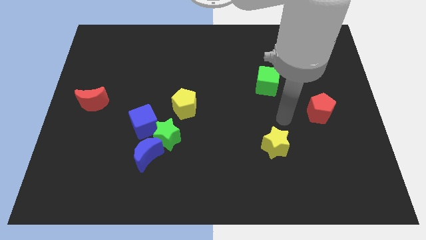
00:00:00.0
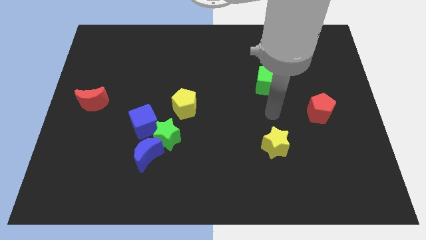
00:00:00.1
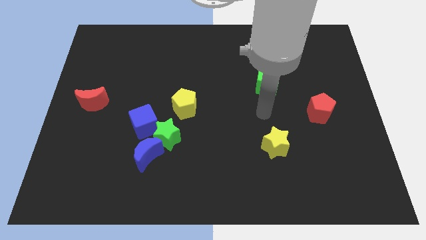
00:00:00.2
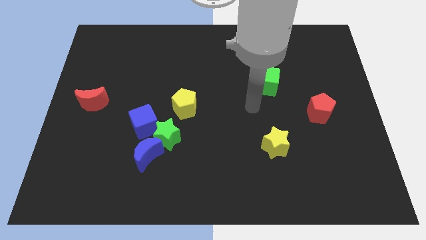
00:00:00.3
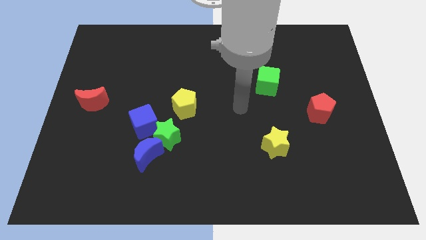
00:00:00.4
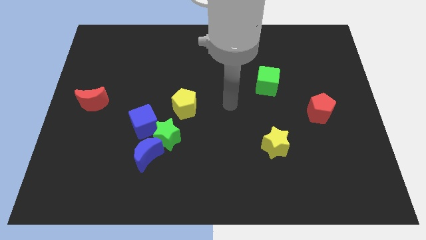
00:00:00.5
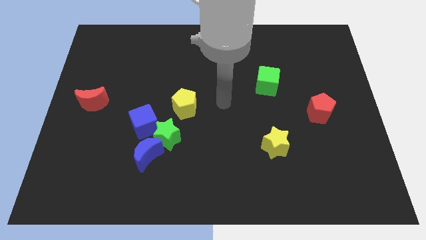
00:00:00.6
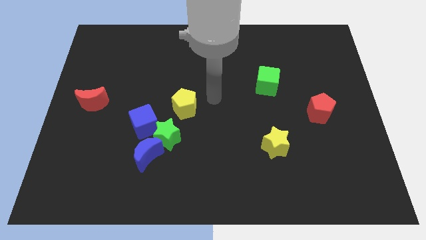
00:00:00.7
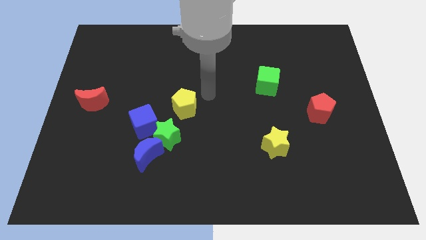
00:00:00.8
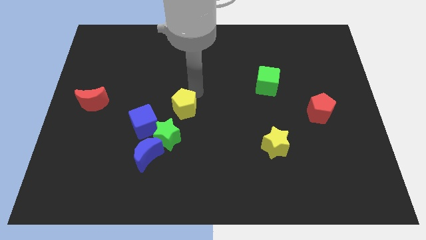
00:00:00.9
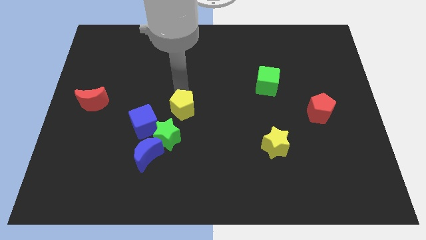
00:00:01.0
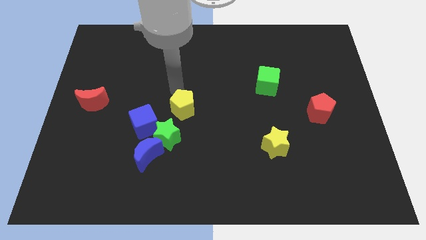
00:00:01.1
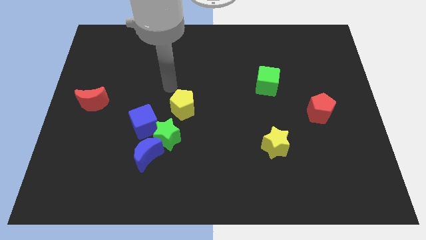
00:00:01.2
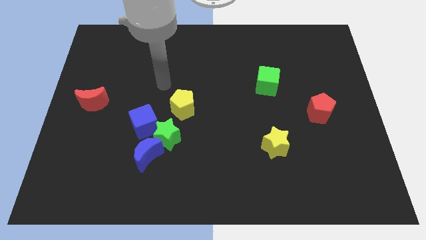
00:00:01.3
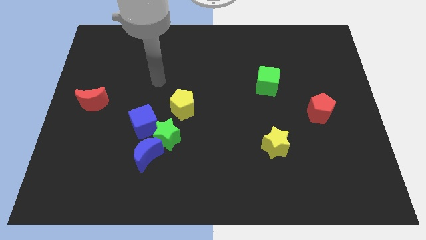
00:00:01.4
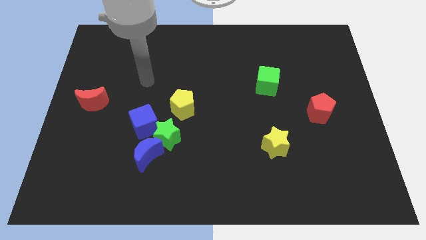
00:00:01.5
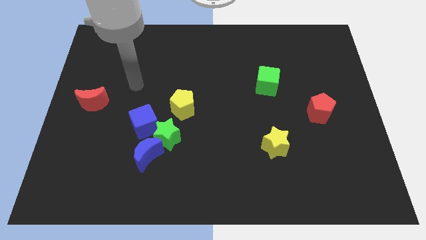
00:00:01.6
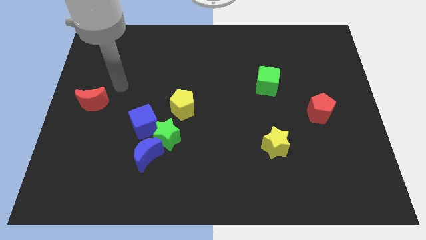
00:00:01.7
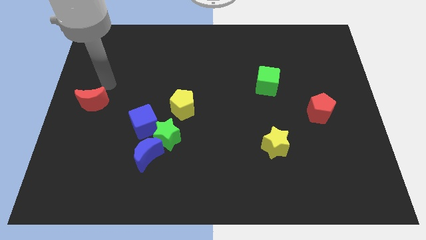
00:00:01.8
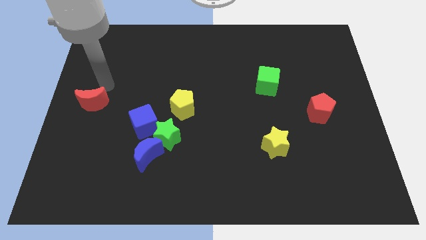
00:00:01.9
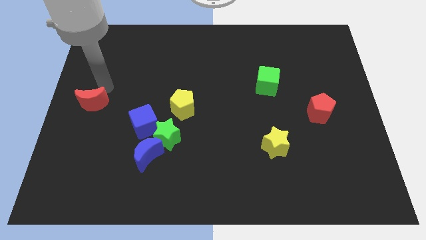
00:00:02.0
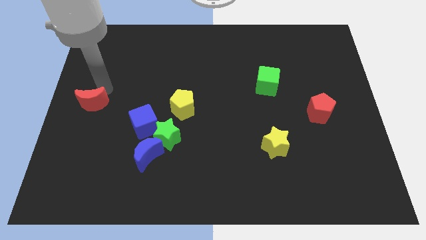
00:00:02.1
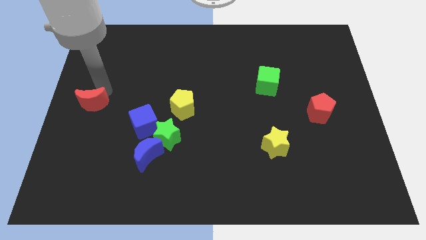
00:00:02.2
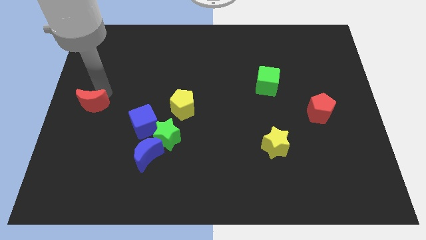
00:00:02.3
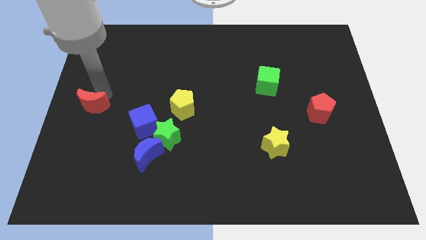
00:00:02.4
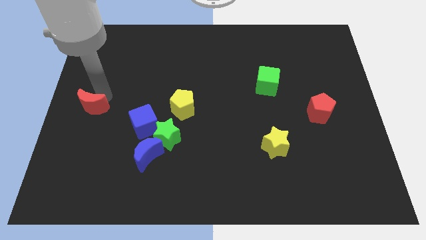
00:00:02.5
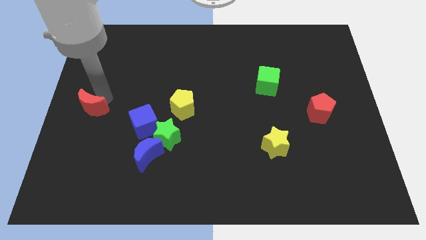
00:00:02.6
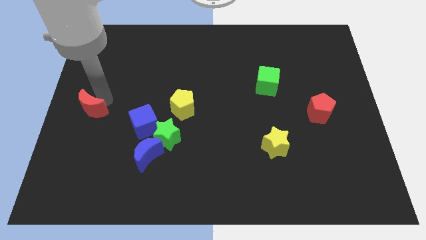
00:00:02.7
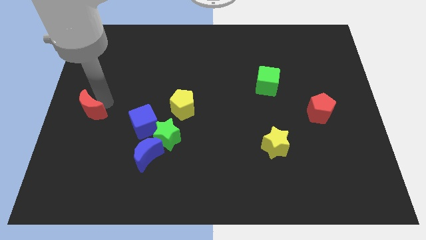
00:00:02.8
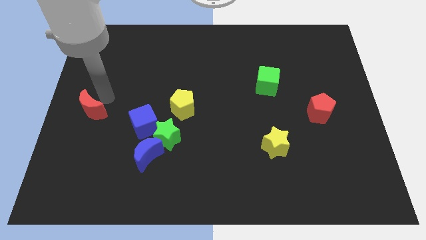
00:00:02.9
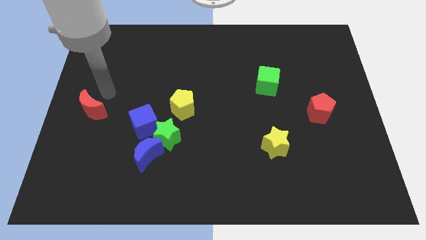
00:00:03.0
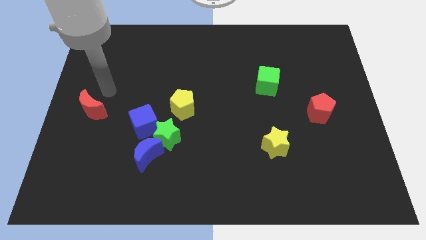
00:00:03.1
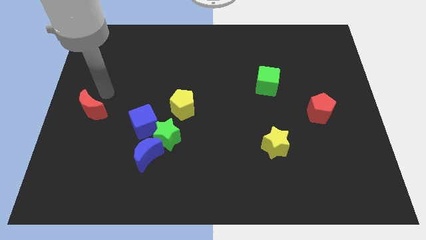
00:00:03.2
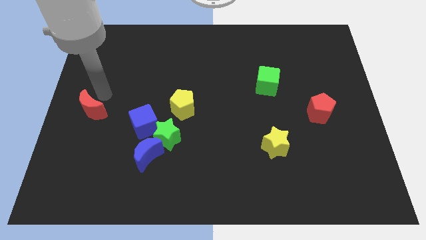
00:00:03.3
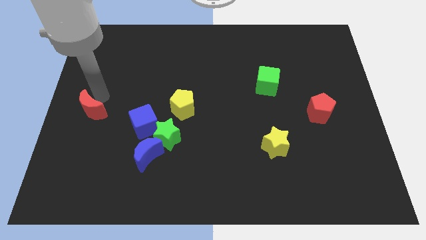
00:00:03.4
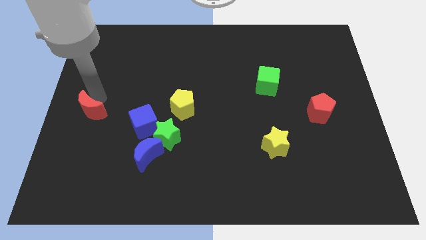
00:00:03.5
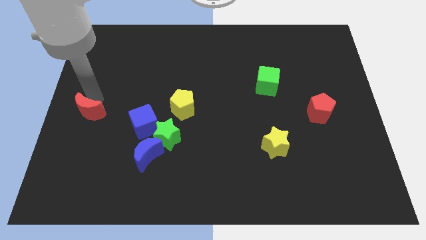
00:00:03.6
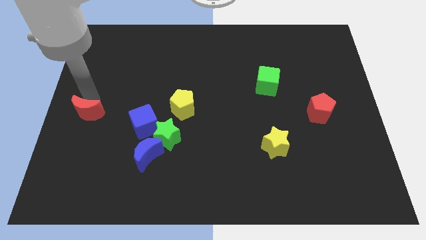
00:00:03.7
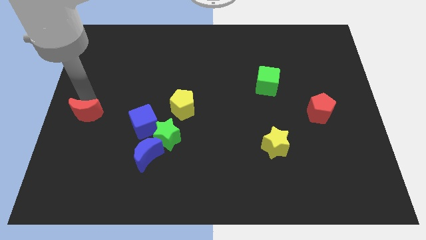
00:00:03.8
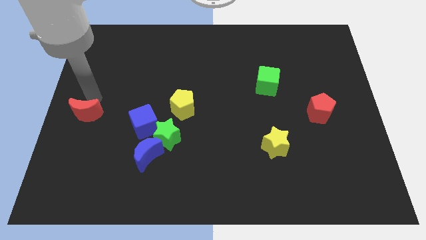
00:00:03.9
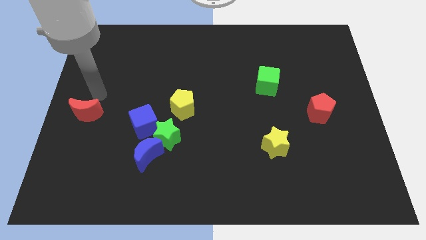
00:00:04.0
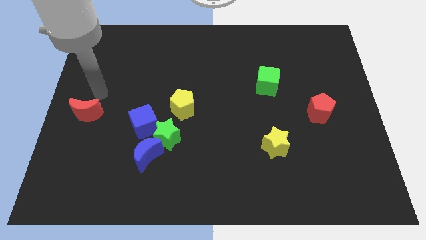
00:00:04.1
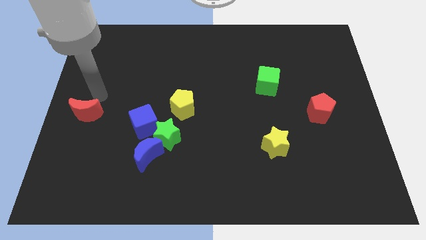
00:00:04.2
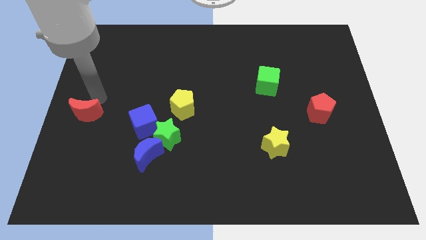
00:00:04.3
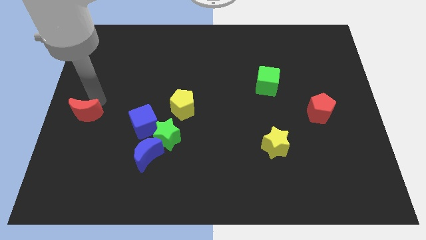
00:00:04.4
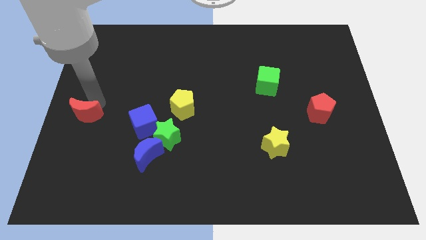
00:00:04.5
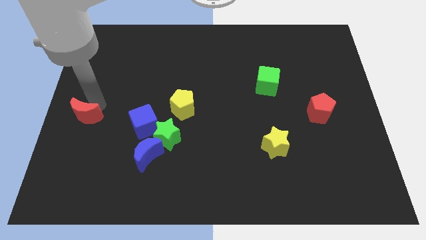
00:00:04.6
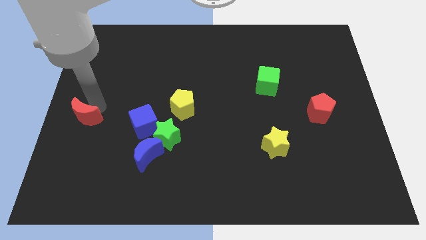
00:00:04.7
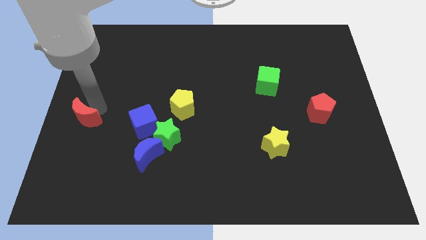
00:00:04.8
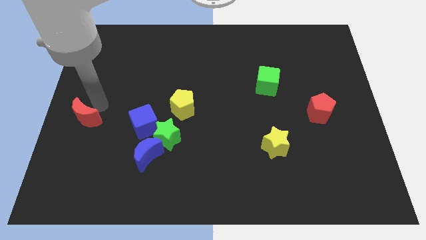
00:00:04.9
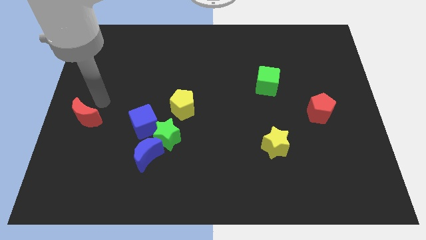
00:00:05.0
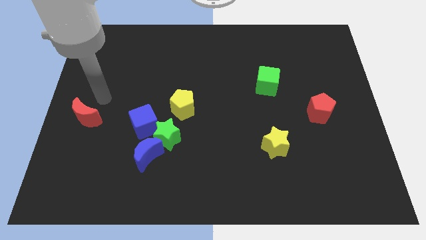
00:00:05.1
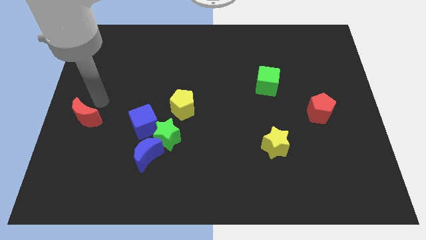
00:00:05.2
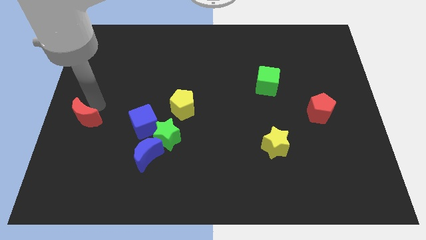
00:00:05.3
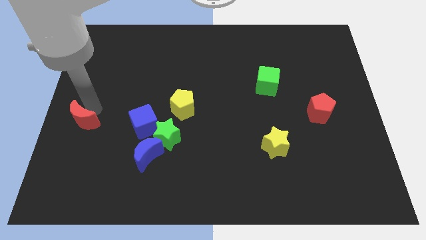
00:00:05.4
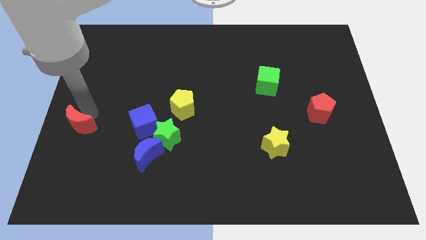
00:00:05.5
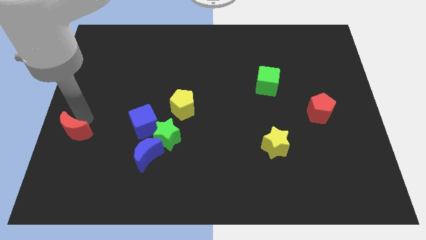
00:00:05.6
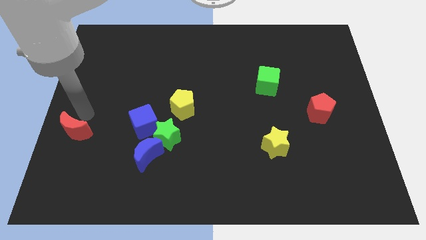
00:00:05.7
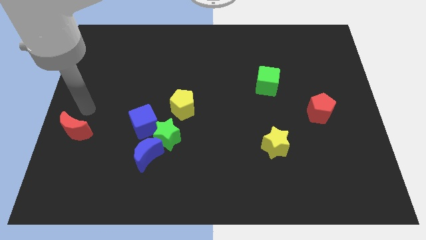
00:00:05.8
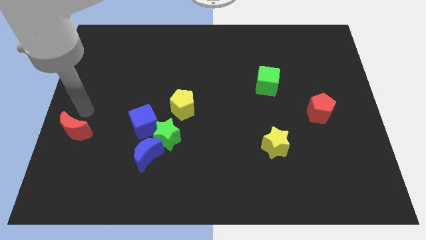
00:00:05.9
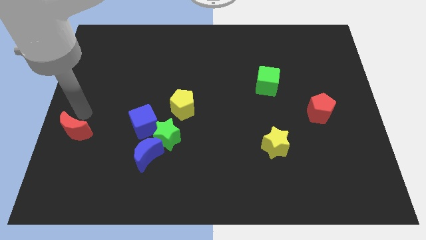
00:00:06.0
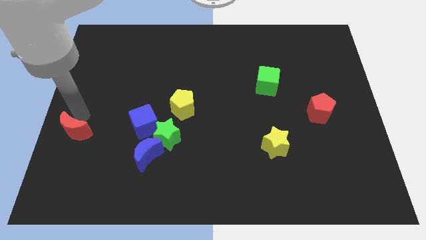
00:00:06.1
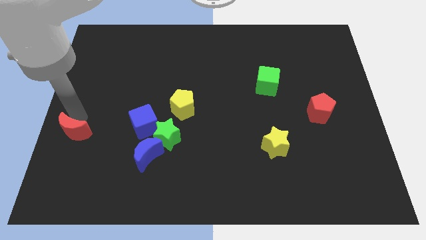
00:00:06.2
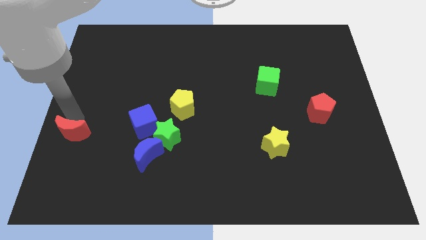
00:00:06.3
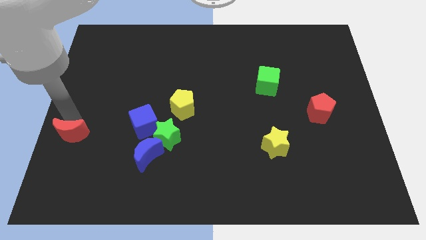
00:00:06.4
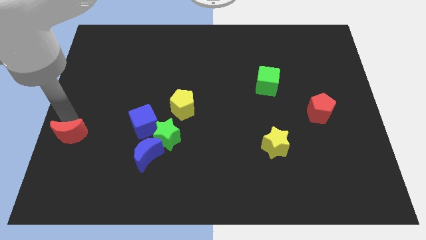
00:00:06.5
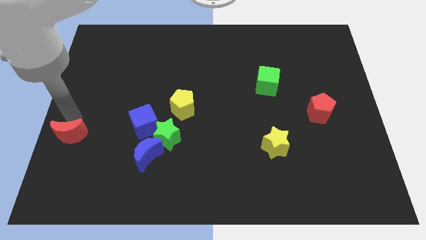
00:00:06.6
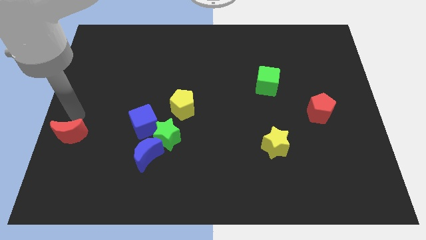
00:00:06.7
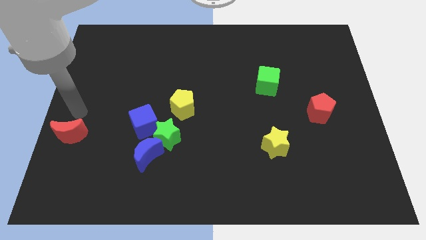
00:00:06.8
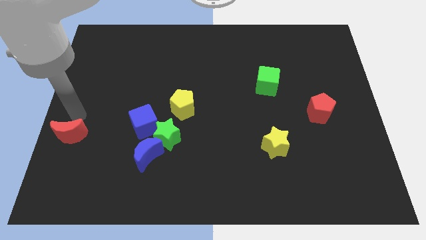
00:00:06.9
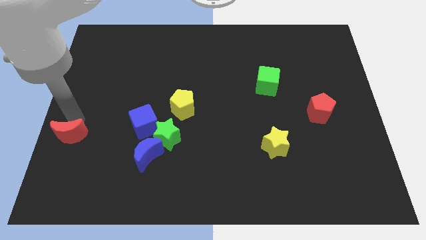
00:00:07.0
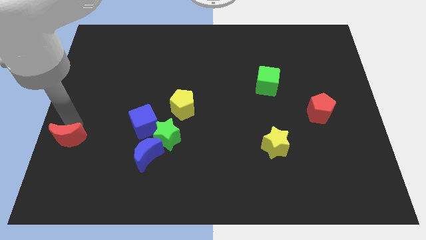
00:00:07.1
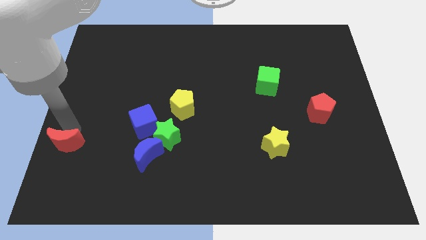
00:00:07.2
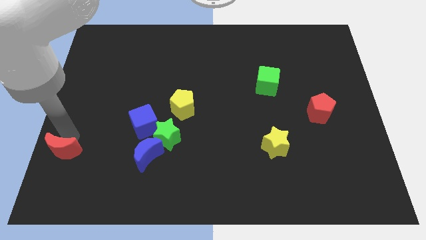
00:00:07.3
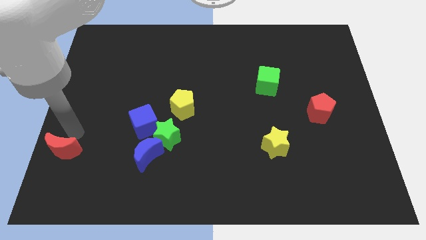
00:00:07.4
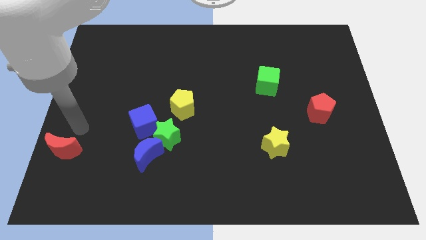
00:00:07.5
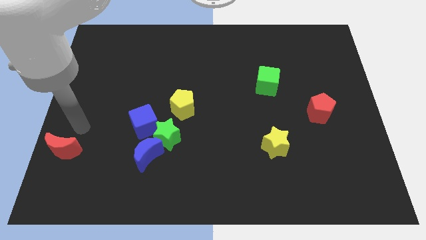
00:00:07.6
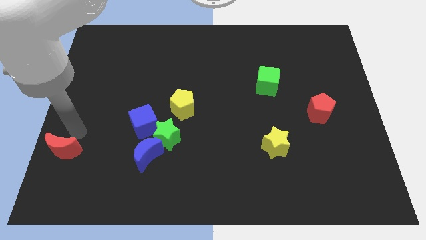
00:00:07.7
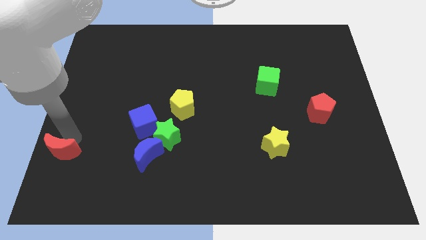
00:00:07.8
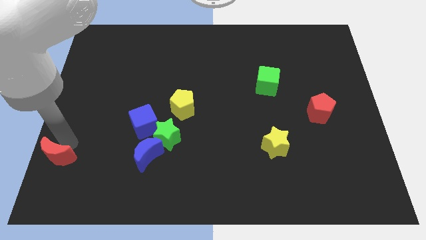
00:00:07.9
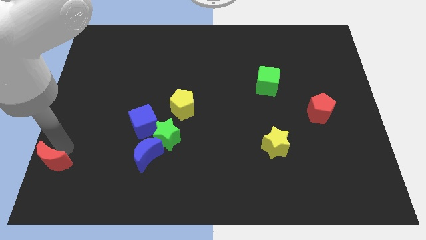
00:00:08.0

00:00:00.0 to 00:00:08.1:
put the red moon to the bottom left of the board
